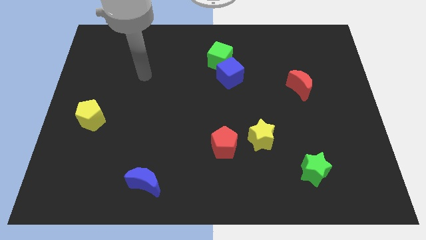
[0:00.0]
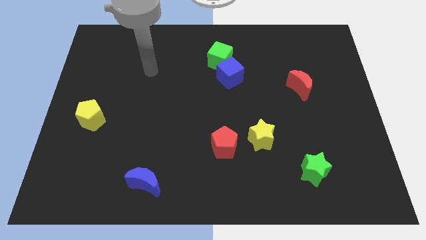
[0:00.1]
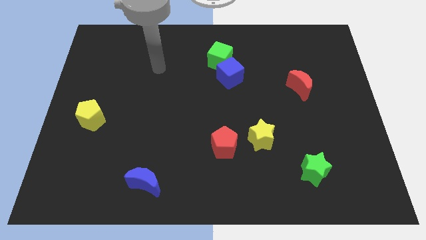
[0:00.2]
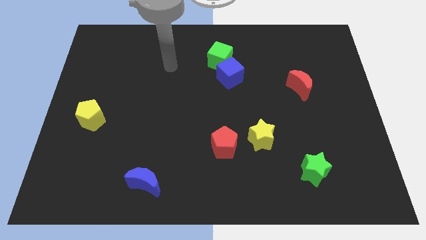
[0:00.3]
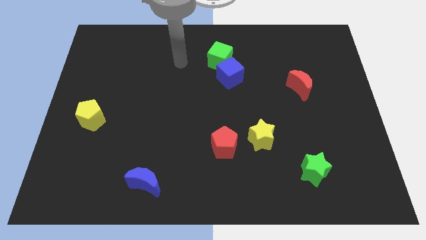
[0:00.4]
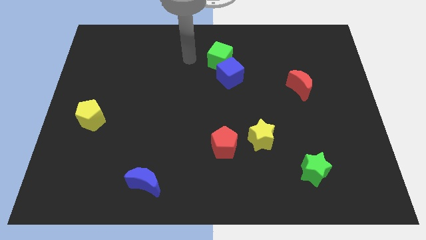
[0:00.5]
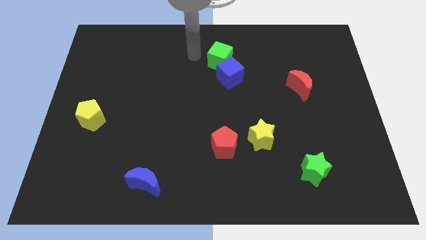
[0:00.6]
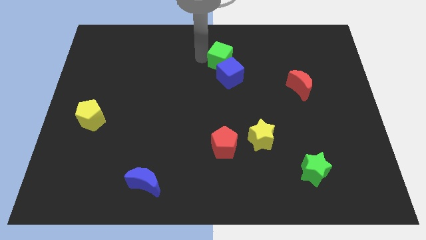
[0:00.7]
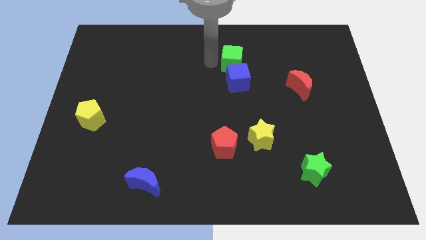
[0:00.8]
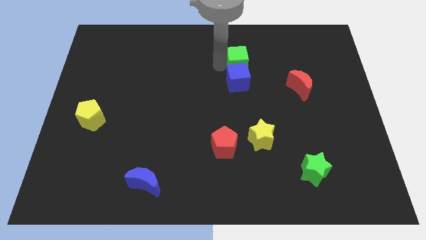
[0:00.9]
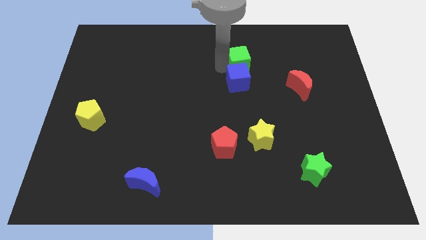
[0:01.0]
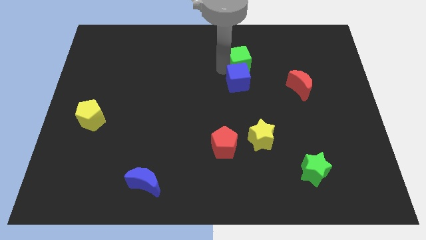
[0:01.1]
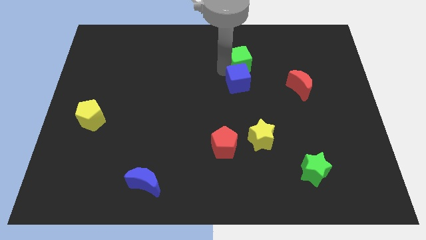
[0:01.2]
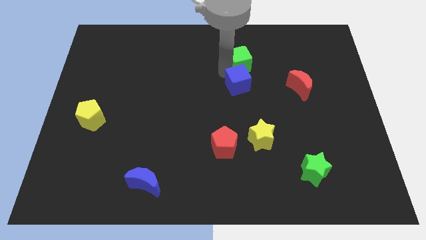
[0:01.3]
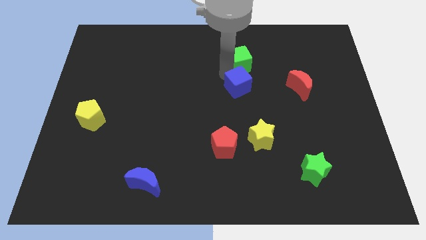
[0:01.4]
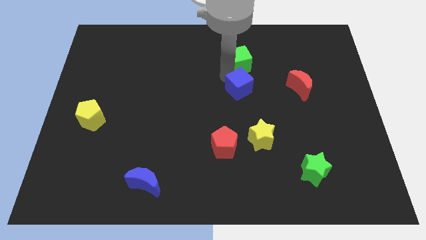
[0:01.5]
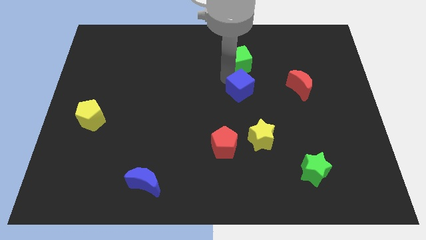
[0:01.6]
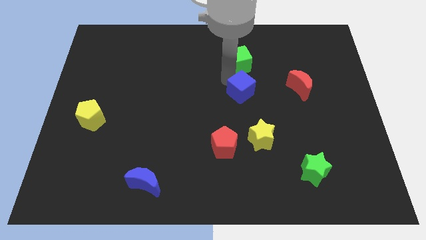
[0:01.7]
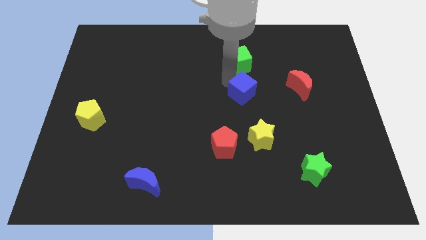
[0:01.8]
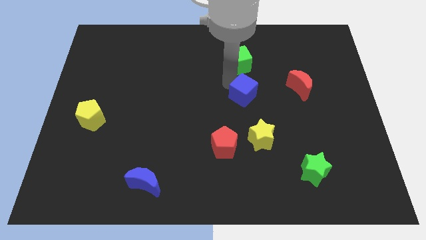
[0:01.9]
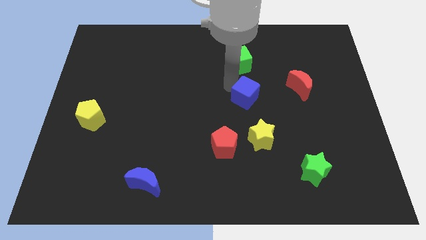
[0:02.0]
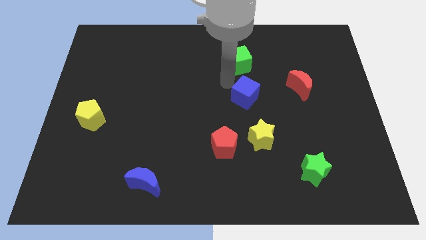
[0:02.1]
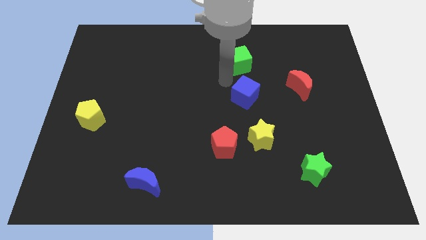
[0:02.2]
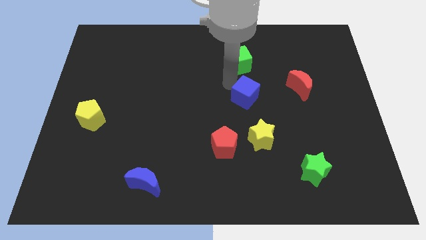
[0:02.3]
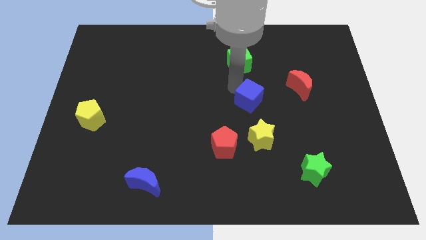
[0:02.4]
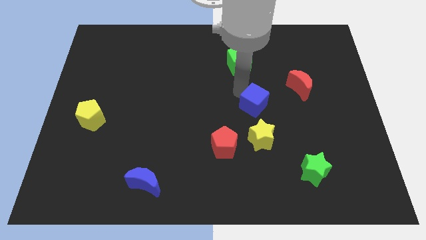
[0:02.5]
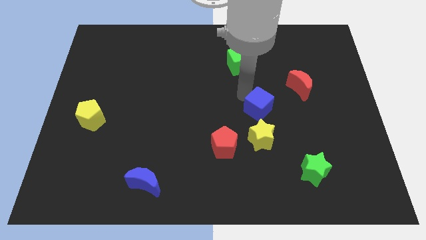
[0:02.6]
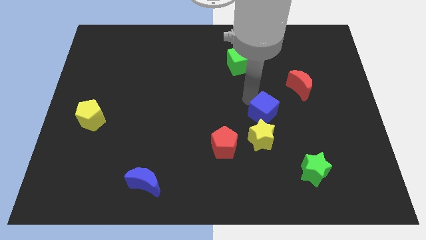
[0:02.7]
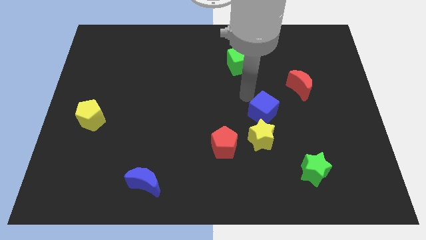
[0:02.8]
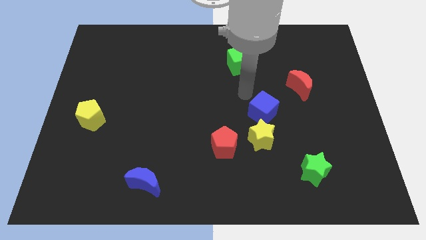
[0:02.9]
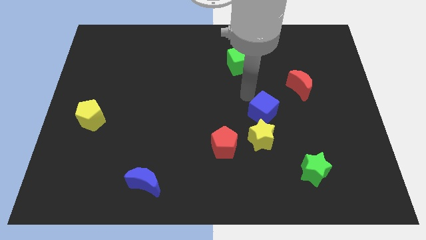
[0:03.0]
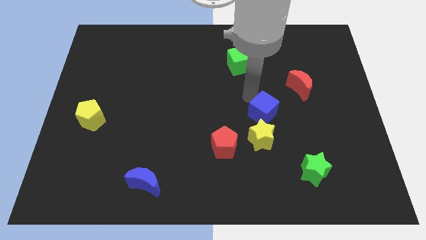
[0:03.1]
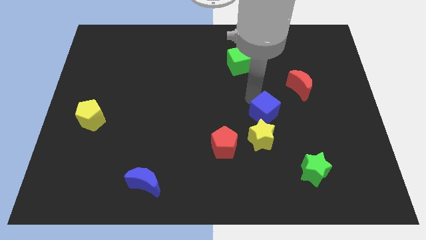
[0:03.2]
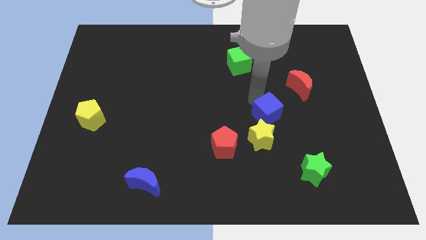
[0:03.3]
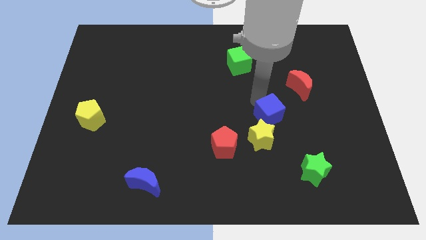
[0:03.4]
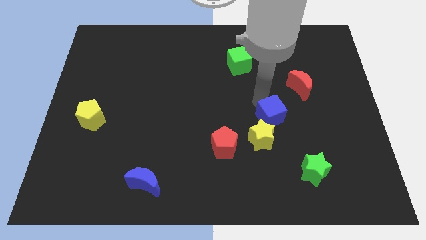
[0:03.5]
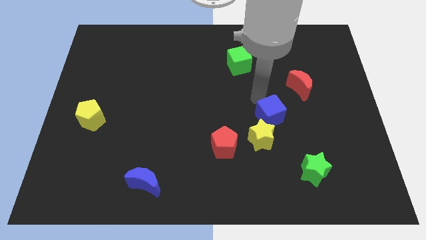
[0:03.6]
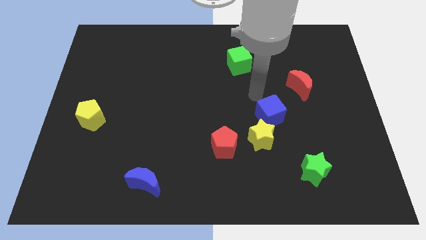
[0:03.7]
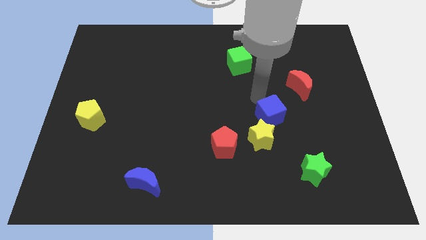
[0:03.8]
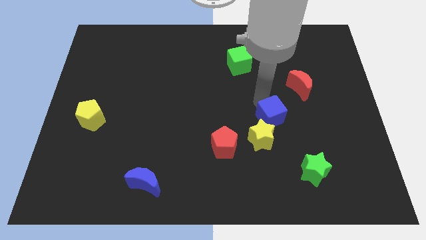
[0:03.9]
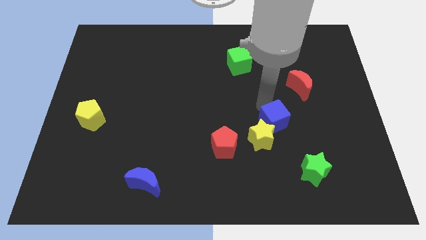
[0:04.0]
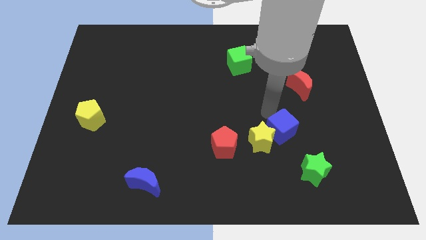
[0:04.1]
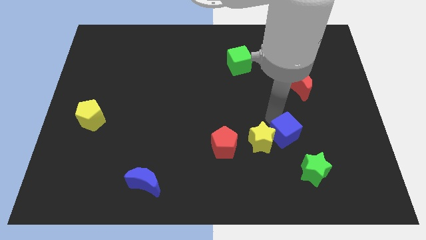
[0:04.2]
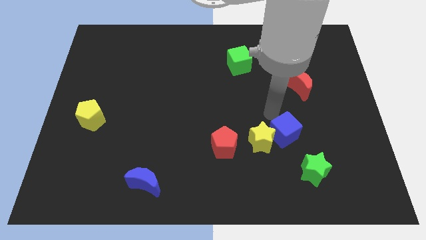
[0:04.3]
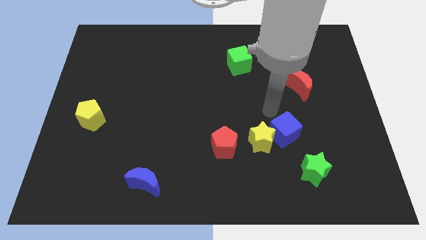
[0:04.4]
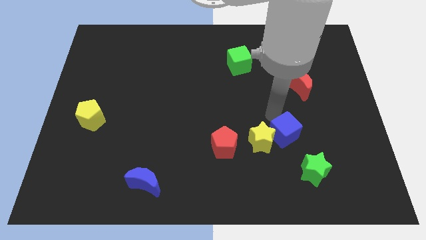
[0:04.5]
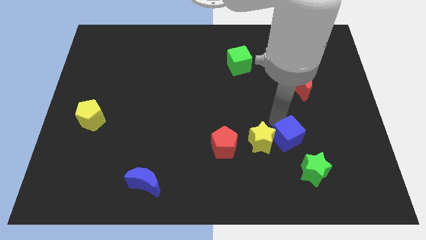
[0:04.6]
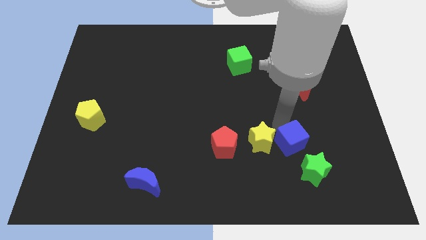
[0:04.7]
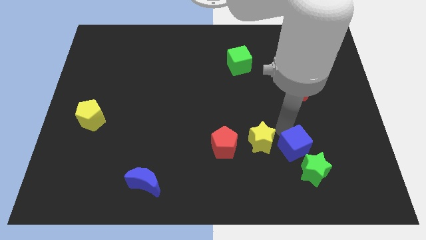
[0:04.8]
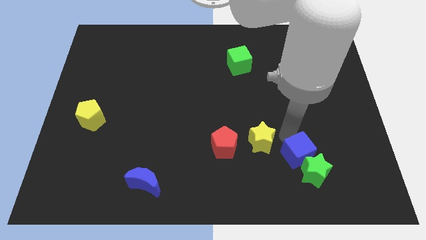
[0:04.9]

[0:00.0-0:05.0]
push the blue cube next to the green star

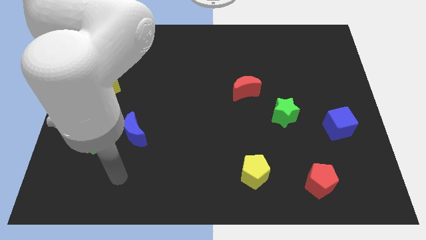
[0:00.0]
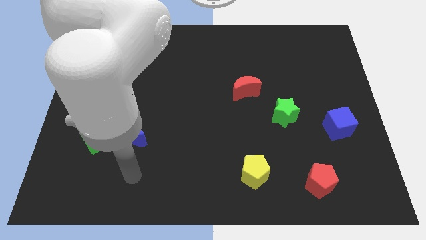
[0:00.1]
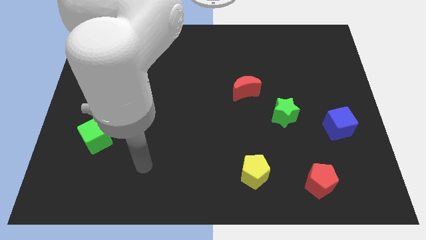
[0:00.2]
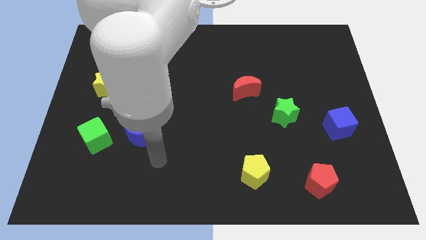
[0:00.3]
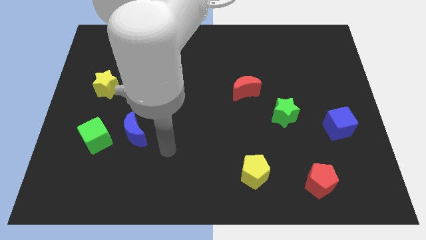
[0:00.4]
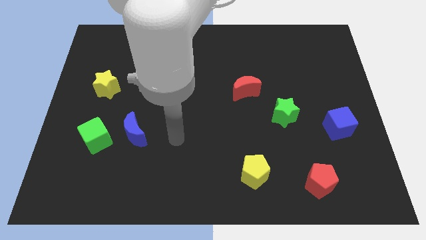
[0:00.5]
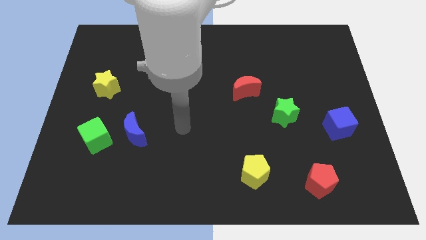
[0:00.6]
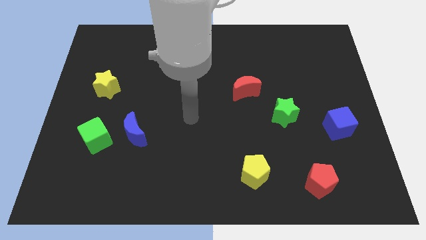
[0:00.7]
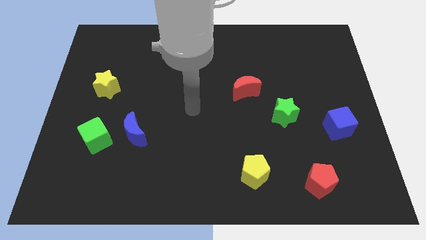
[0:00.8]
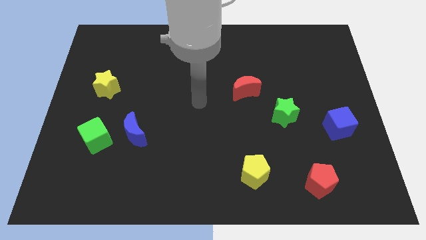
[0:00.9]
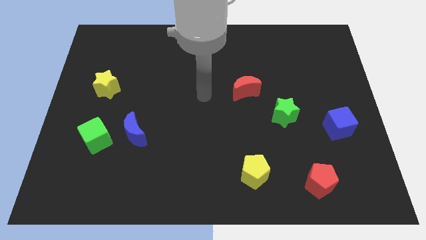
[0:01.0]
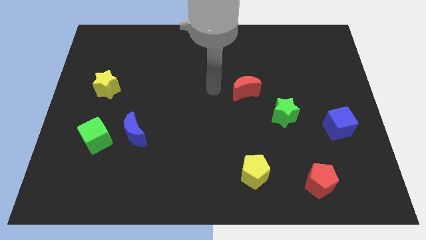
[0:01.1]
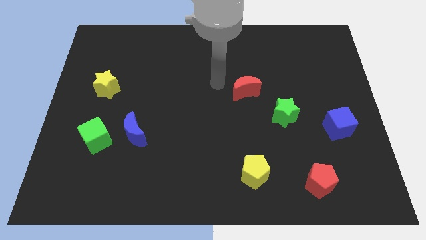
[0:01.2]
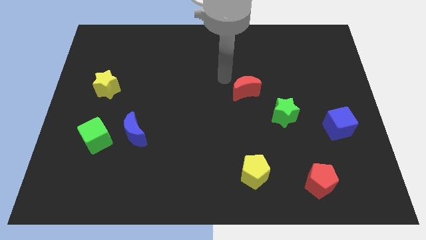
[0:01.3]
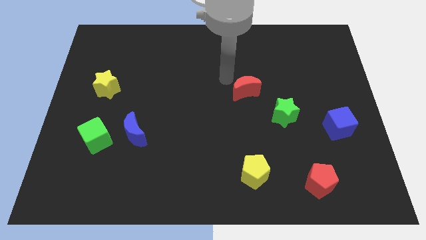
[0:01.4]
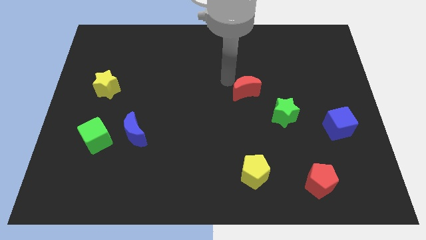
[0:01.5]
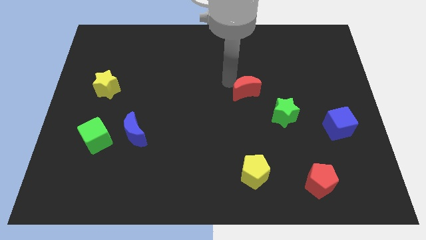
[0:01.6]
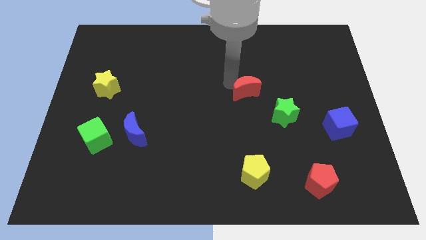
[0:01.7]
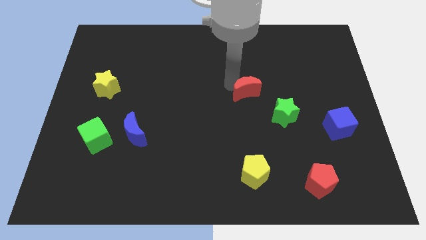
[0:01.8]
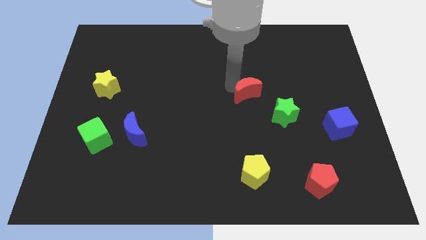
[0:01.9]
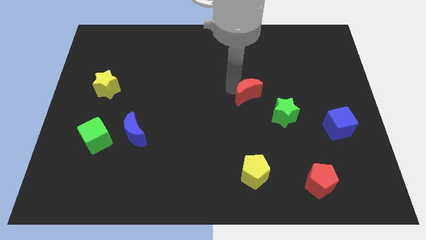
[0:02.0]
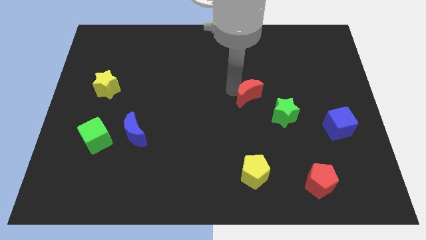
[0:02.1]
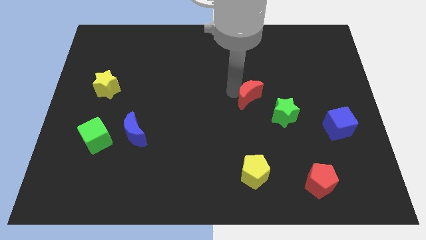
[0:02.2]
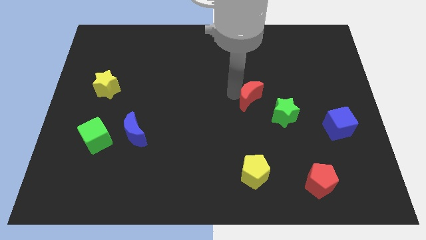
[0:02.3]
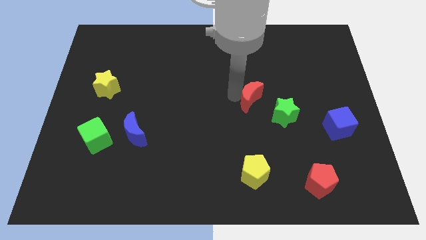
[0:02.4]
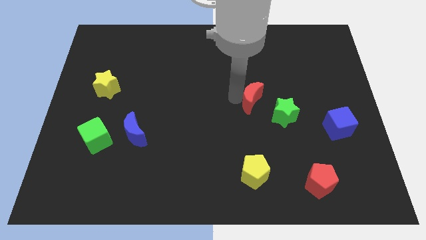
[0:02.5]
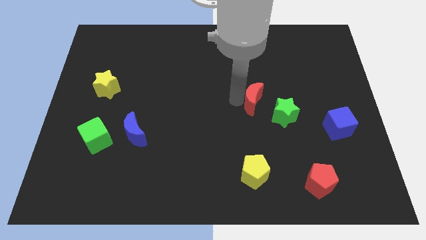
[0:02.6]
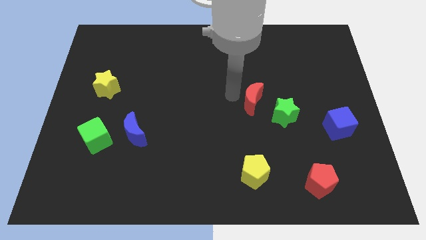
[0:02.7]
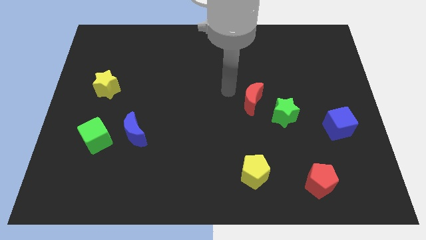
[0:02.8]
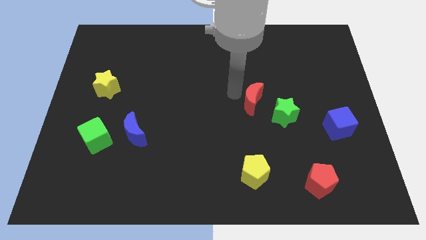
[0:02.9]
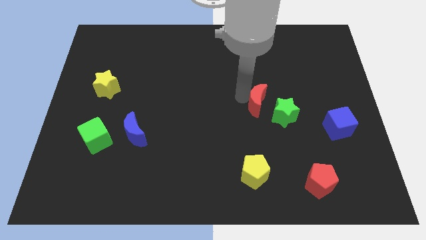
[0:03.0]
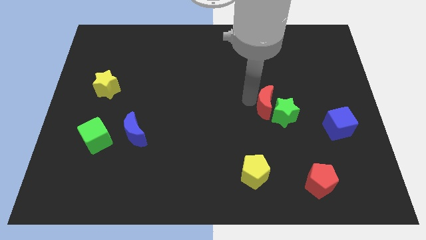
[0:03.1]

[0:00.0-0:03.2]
put the red moon close to the green star
